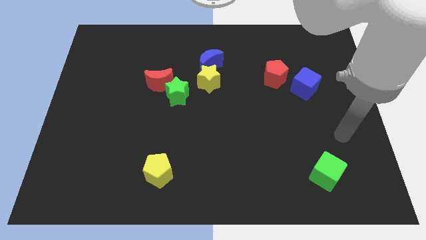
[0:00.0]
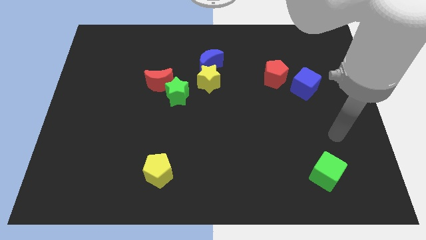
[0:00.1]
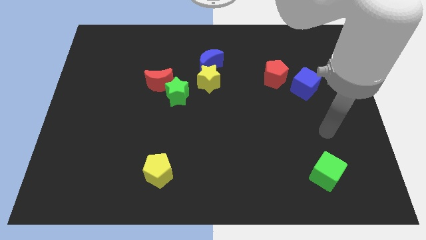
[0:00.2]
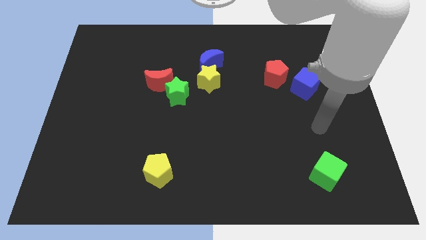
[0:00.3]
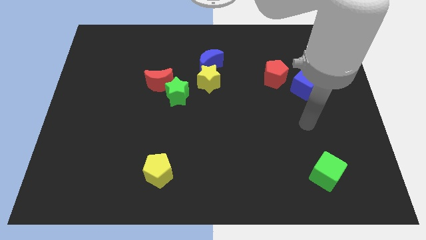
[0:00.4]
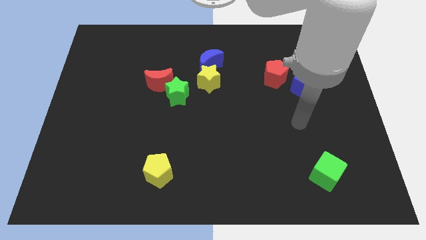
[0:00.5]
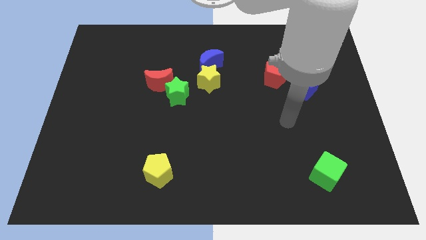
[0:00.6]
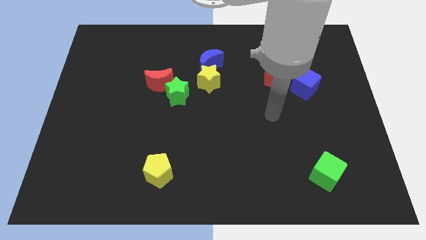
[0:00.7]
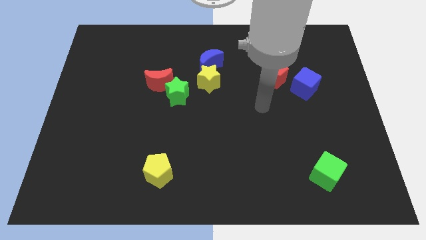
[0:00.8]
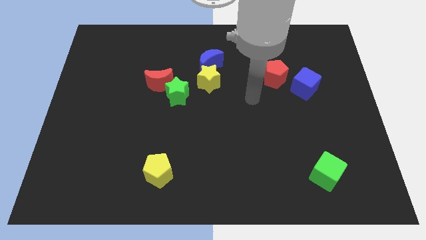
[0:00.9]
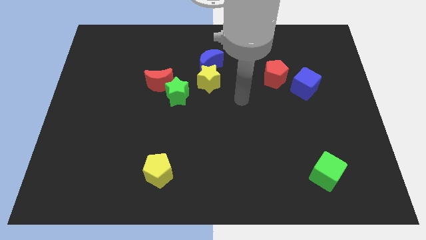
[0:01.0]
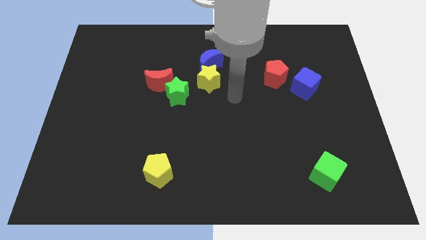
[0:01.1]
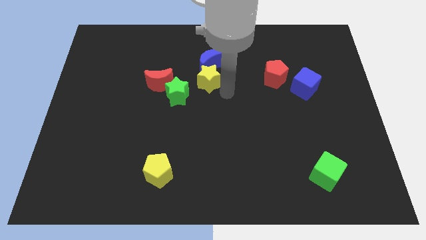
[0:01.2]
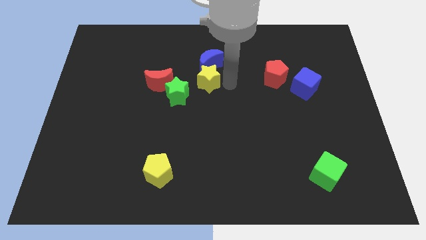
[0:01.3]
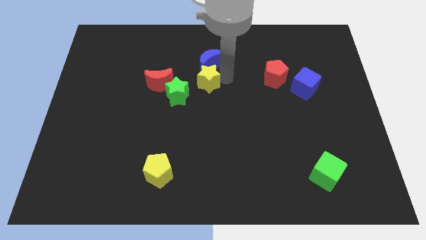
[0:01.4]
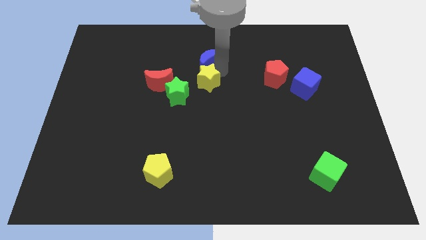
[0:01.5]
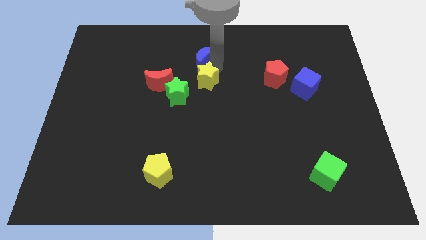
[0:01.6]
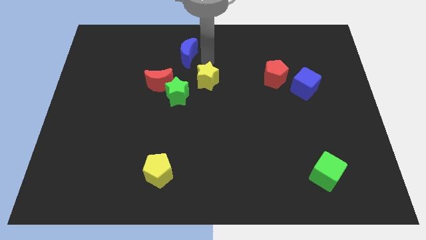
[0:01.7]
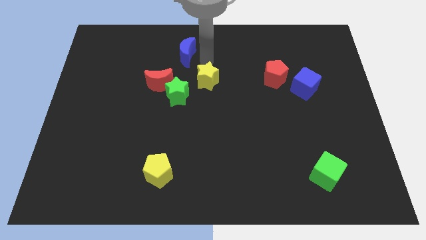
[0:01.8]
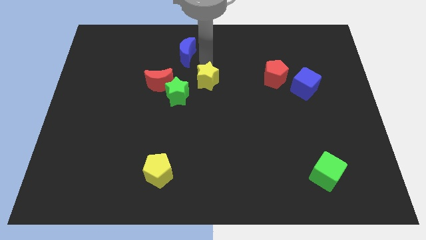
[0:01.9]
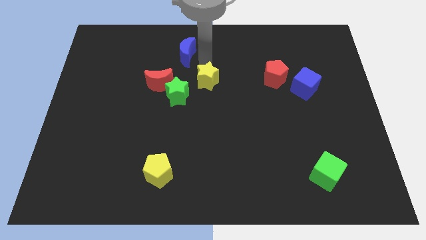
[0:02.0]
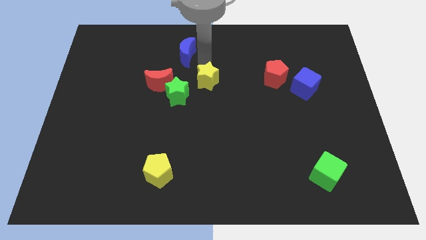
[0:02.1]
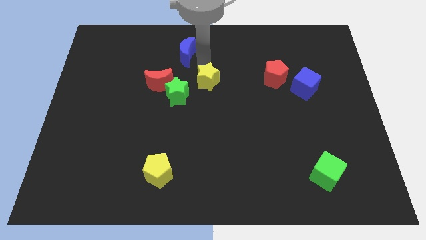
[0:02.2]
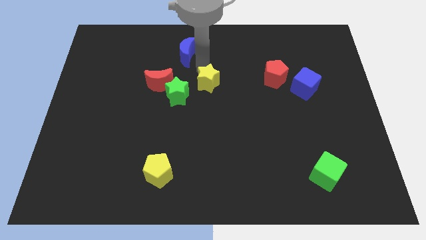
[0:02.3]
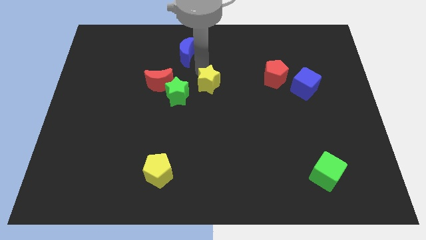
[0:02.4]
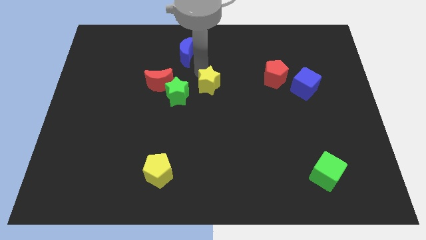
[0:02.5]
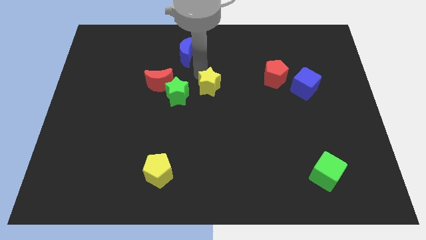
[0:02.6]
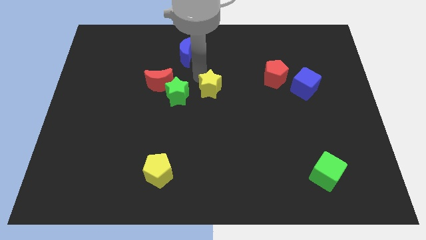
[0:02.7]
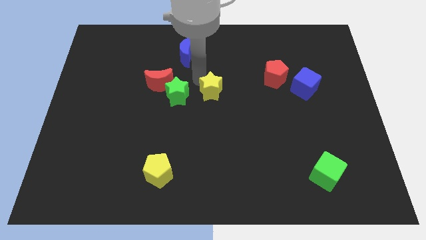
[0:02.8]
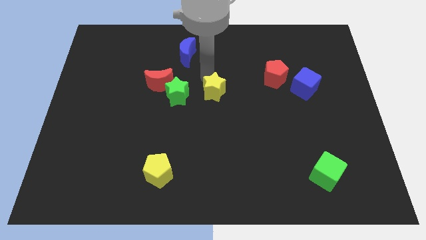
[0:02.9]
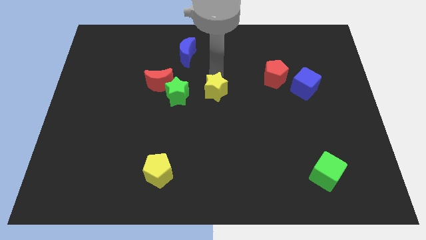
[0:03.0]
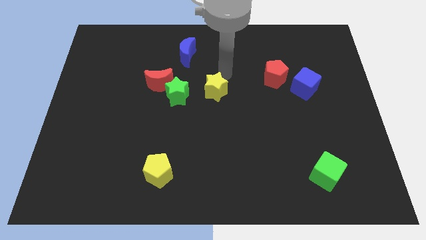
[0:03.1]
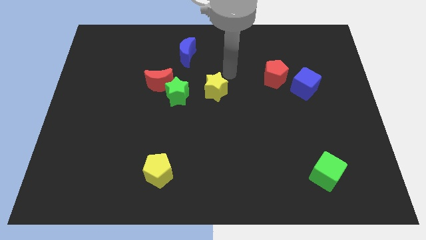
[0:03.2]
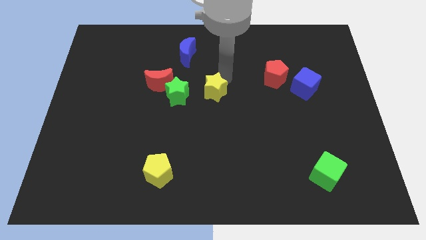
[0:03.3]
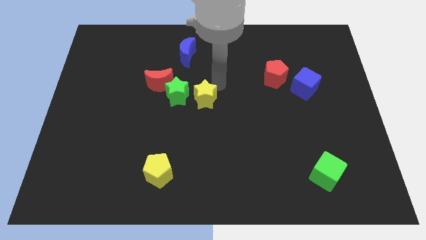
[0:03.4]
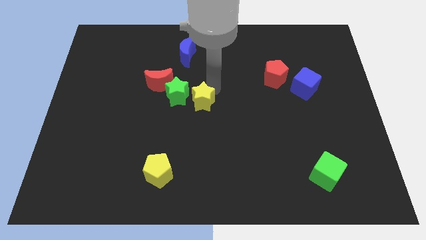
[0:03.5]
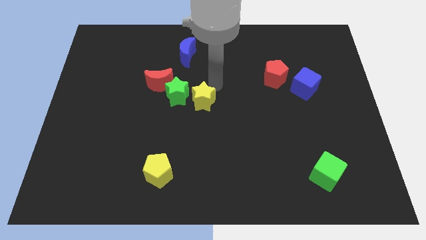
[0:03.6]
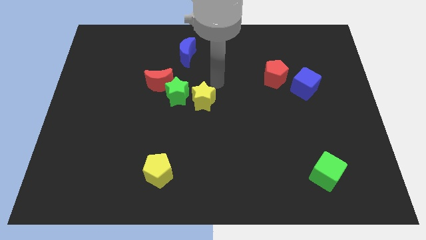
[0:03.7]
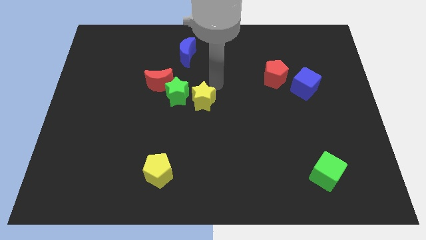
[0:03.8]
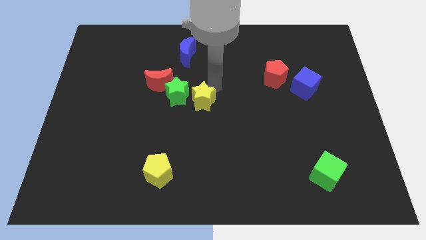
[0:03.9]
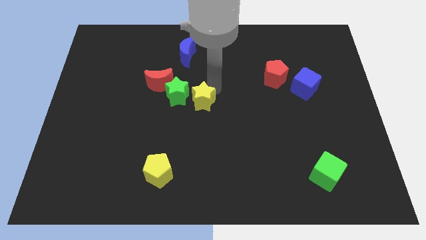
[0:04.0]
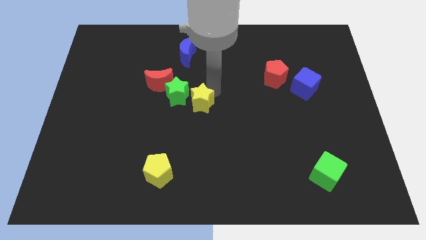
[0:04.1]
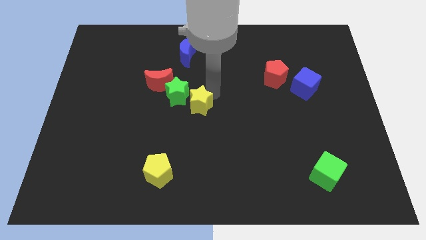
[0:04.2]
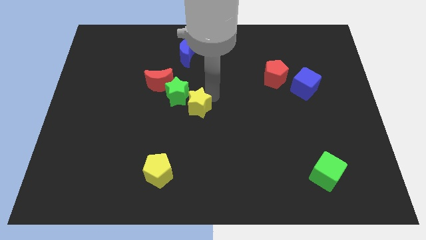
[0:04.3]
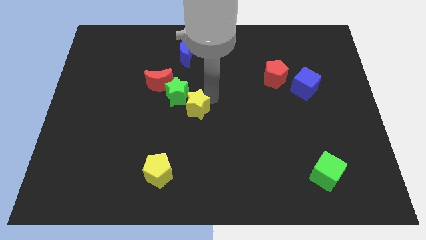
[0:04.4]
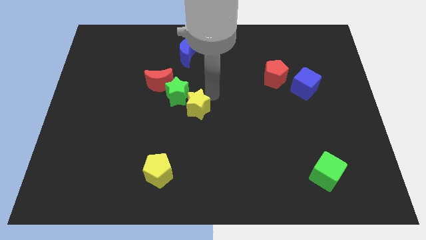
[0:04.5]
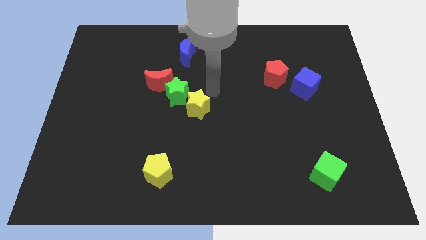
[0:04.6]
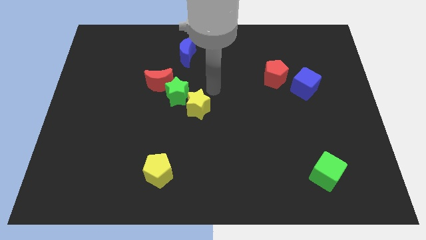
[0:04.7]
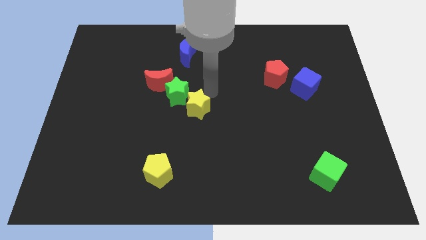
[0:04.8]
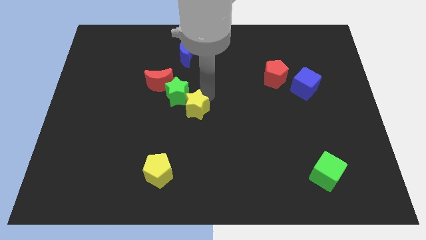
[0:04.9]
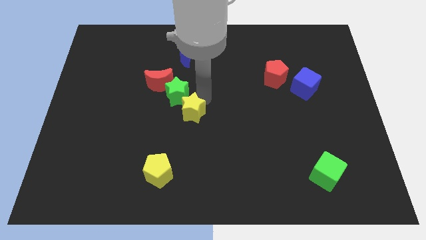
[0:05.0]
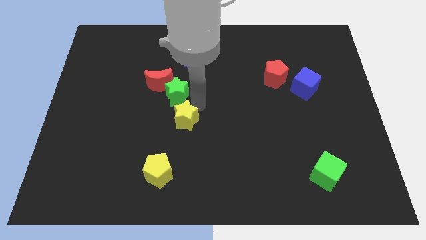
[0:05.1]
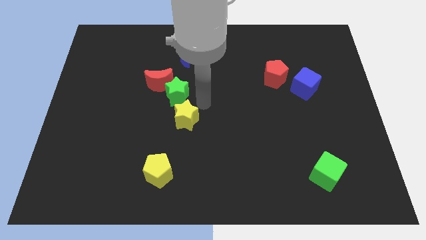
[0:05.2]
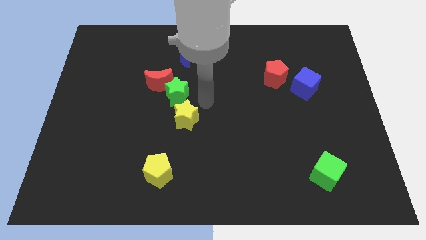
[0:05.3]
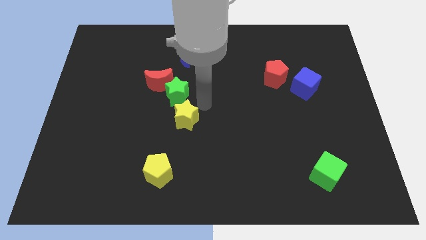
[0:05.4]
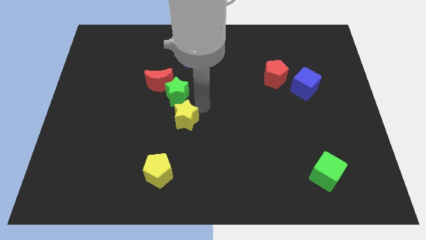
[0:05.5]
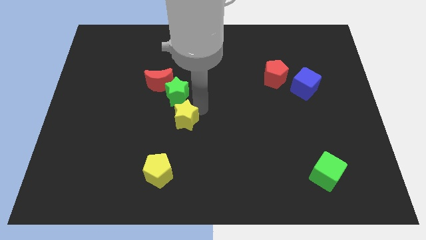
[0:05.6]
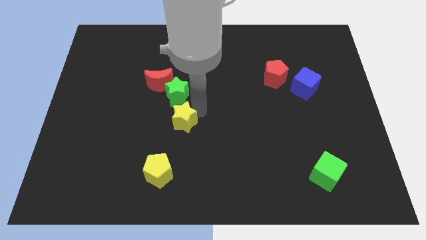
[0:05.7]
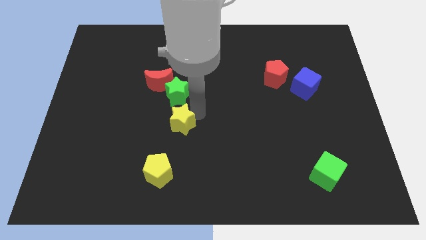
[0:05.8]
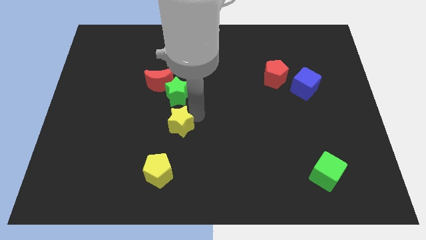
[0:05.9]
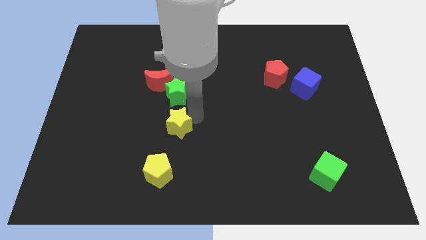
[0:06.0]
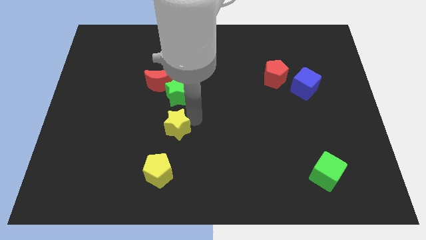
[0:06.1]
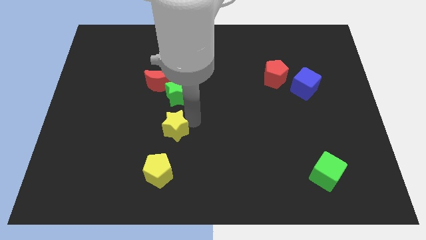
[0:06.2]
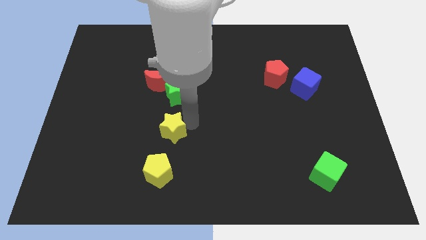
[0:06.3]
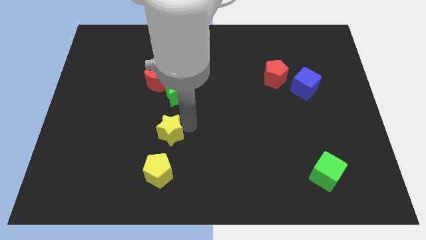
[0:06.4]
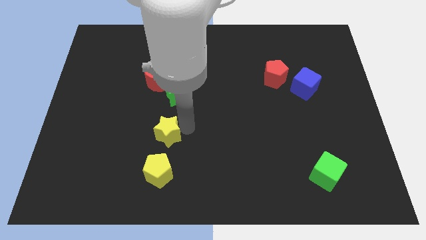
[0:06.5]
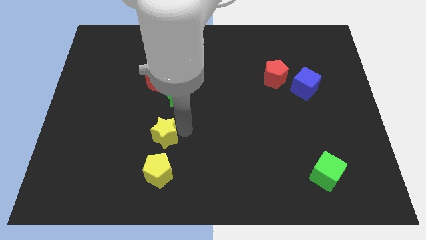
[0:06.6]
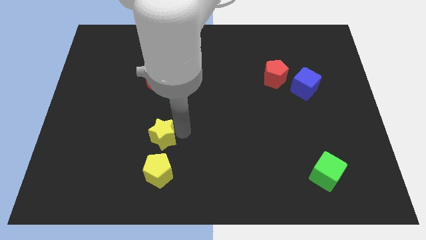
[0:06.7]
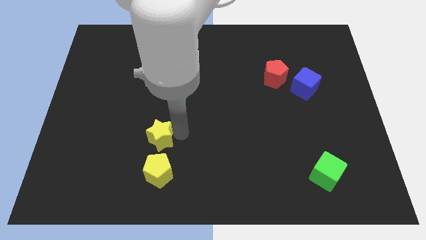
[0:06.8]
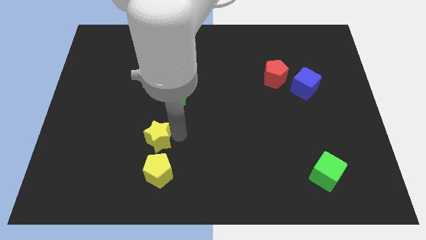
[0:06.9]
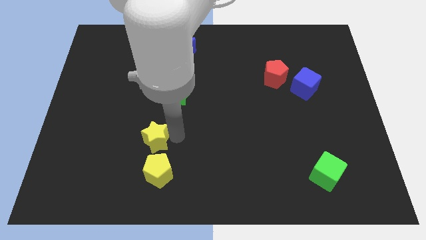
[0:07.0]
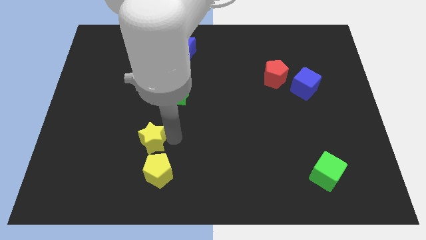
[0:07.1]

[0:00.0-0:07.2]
move the yellow star downwards and left diagonally

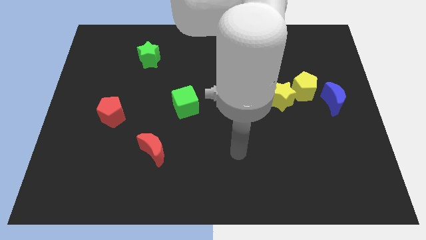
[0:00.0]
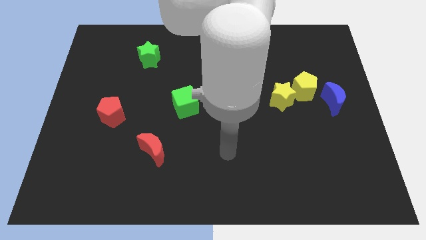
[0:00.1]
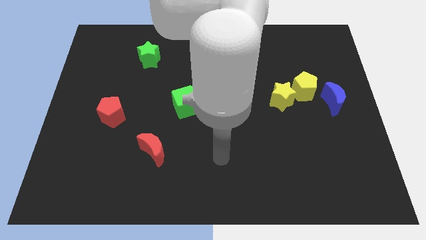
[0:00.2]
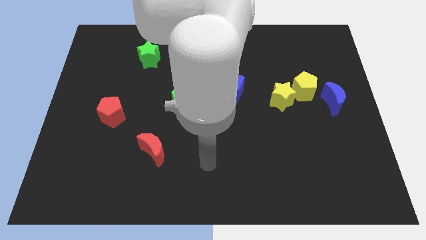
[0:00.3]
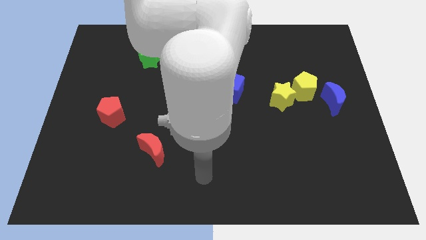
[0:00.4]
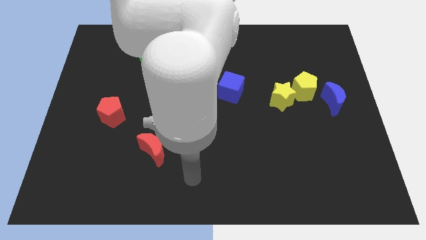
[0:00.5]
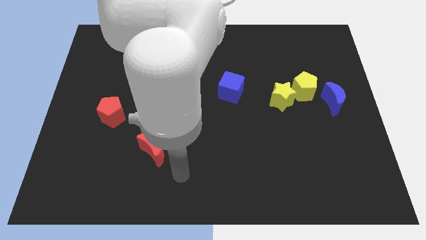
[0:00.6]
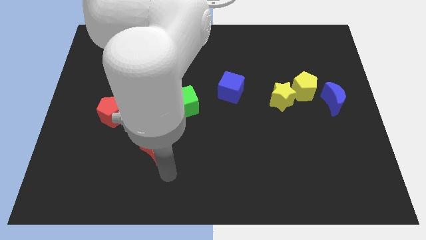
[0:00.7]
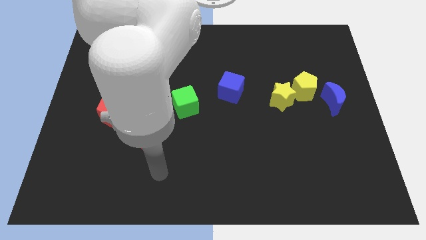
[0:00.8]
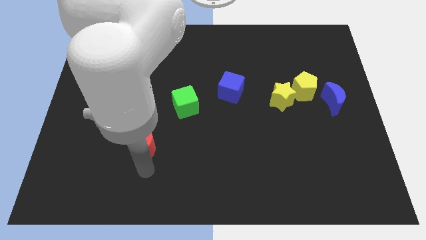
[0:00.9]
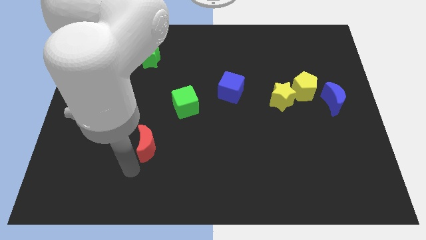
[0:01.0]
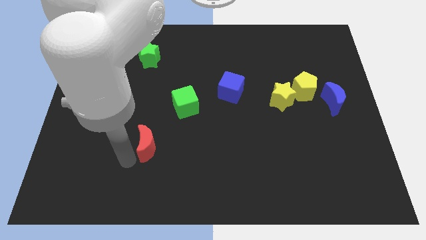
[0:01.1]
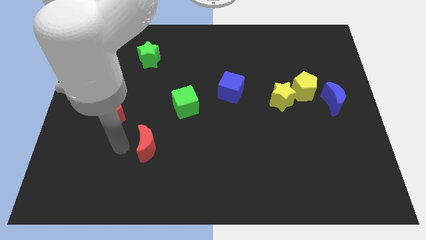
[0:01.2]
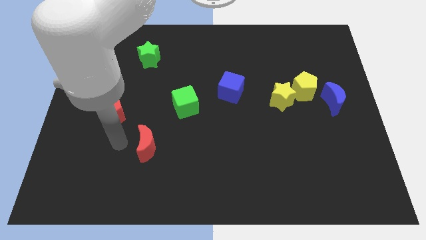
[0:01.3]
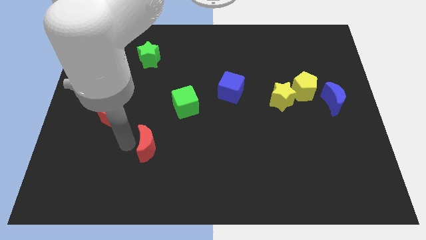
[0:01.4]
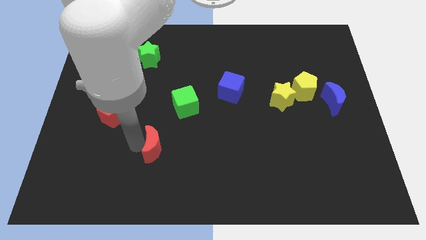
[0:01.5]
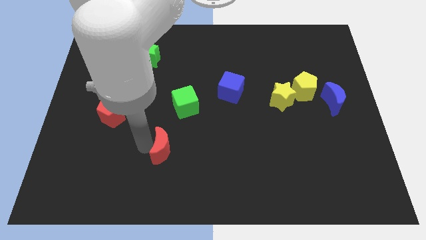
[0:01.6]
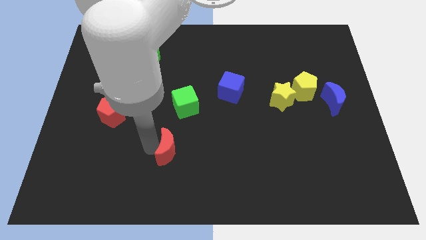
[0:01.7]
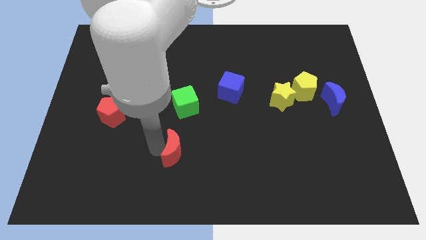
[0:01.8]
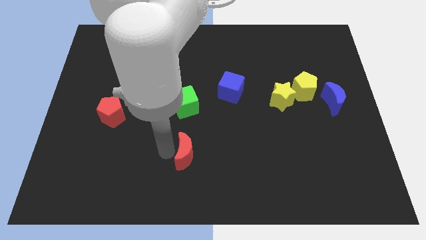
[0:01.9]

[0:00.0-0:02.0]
move the red moon to the right a bit
